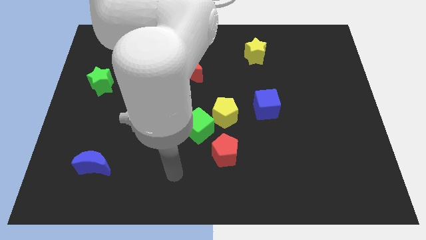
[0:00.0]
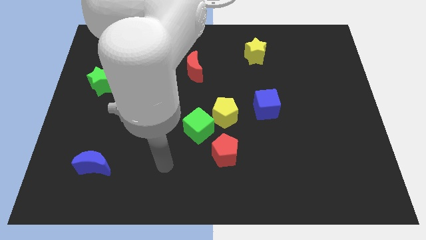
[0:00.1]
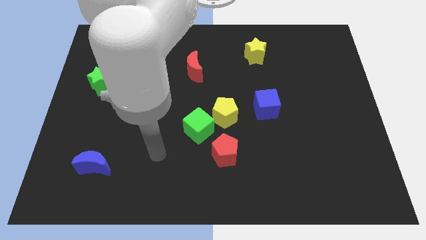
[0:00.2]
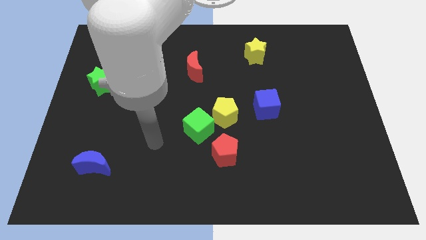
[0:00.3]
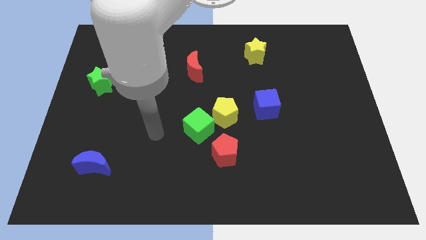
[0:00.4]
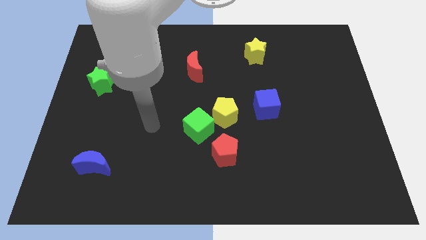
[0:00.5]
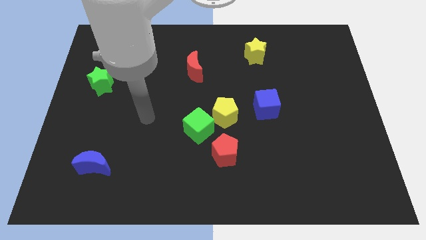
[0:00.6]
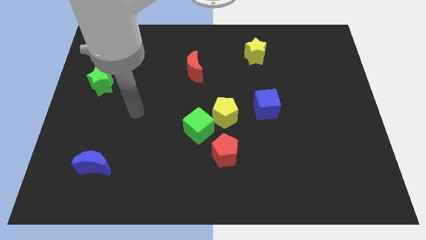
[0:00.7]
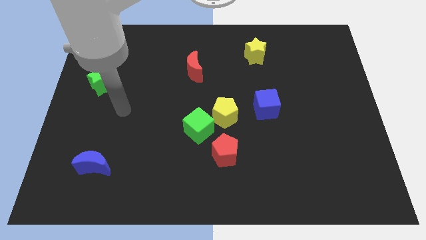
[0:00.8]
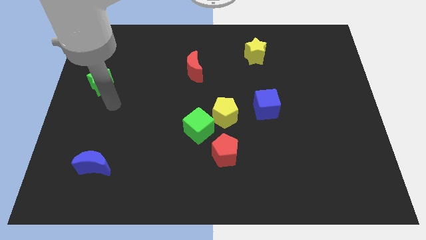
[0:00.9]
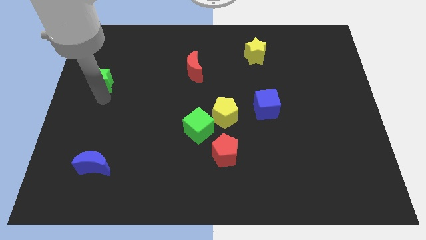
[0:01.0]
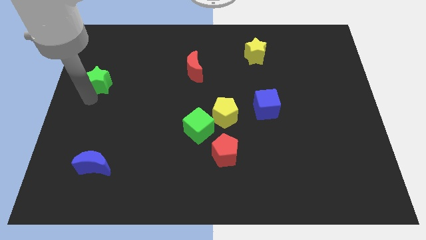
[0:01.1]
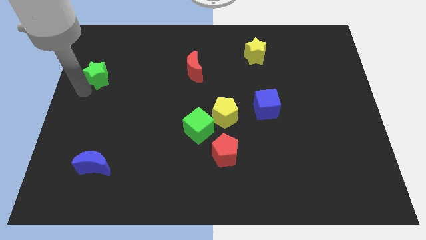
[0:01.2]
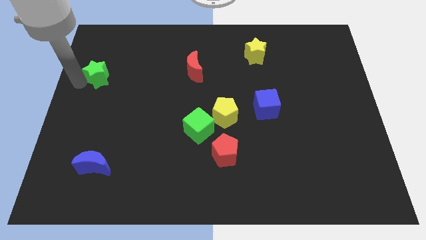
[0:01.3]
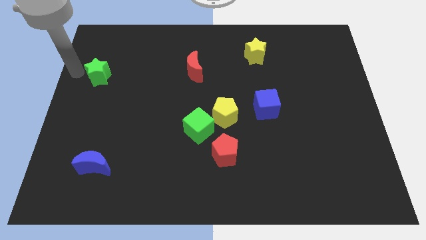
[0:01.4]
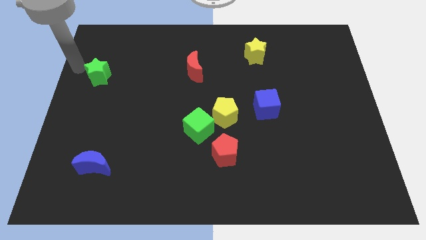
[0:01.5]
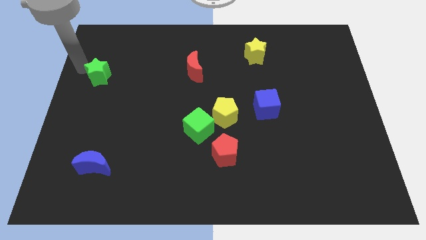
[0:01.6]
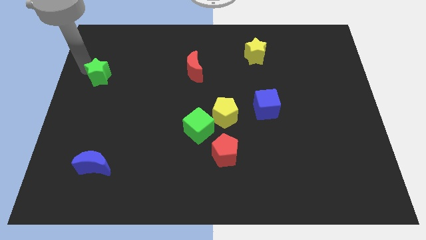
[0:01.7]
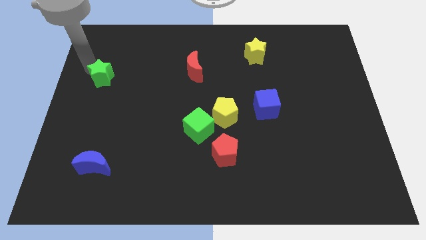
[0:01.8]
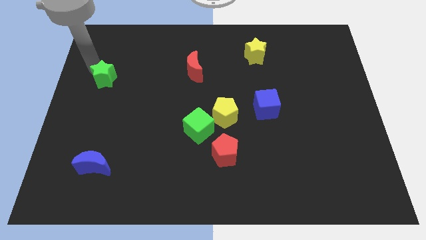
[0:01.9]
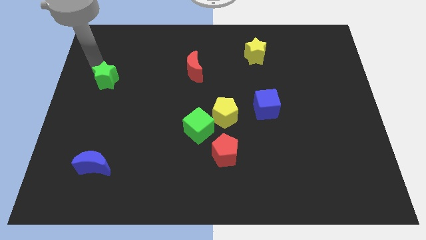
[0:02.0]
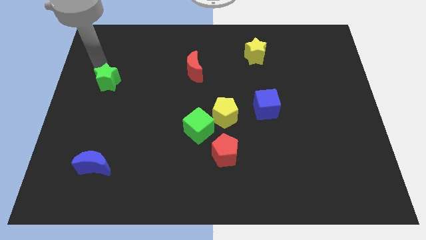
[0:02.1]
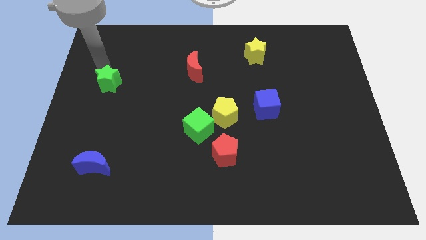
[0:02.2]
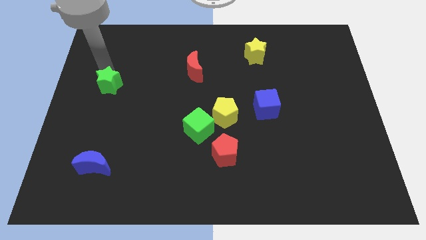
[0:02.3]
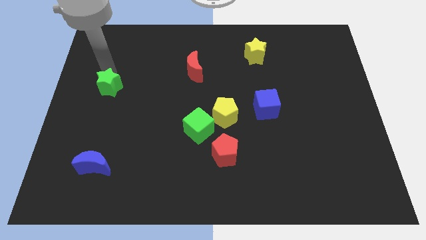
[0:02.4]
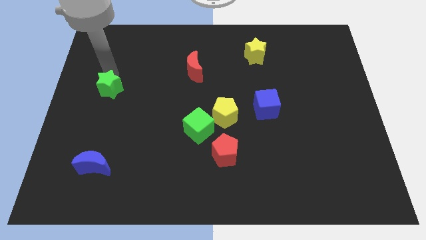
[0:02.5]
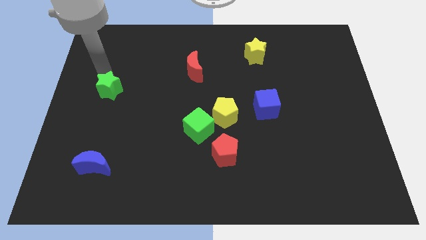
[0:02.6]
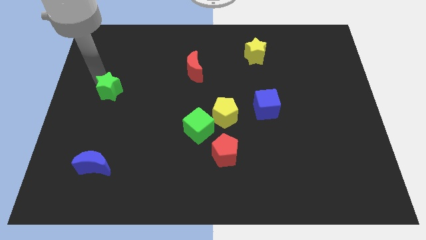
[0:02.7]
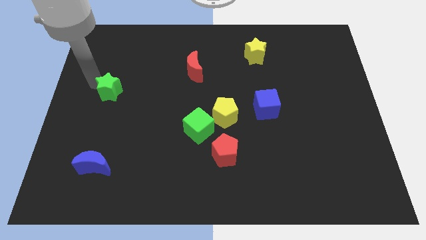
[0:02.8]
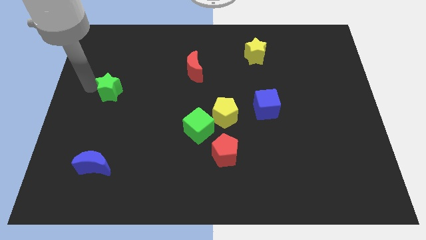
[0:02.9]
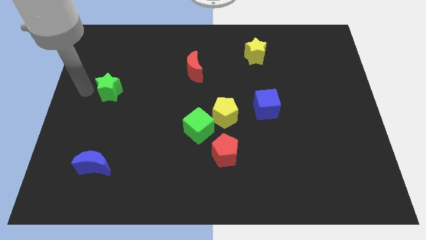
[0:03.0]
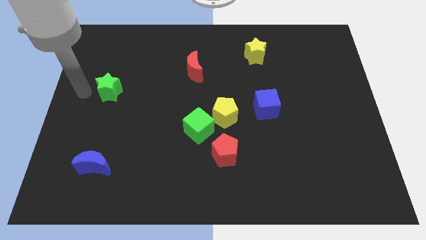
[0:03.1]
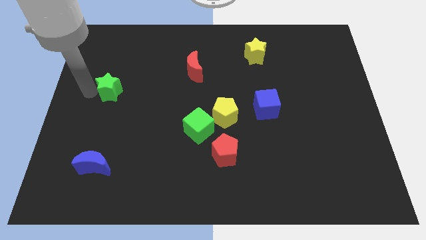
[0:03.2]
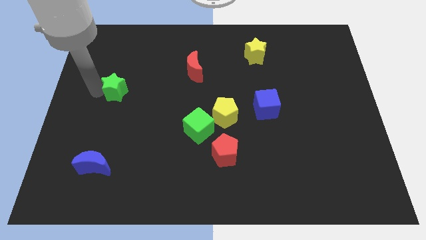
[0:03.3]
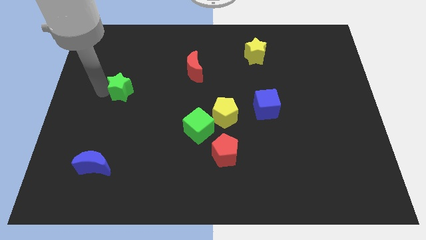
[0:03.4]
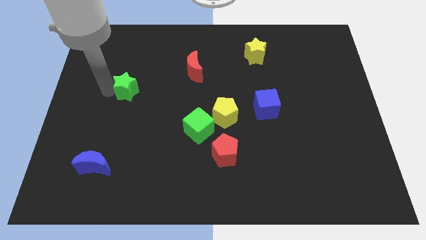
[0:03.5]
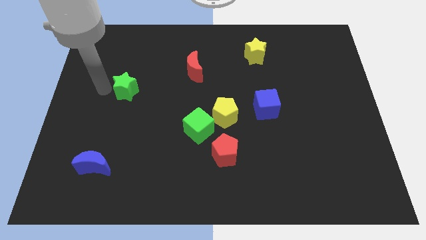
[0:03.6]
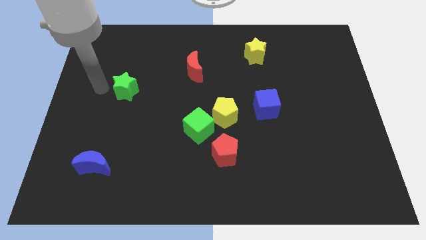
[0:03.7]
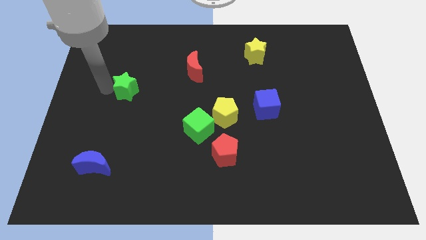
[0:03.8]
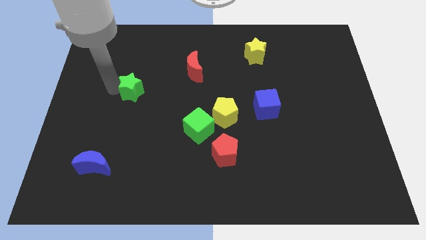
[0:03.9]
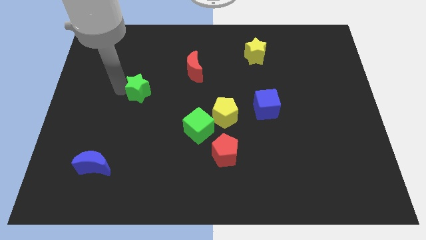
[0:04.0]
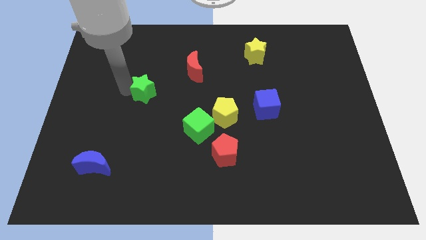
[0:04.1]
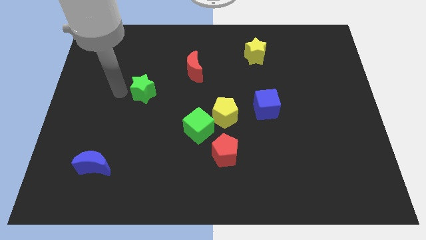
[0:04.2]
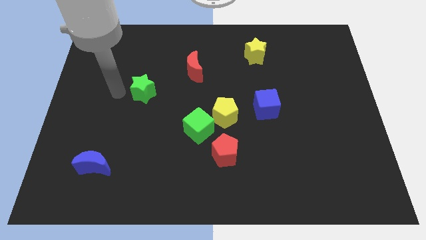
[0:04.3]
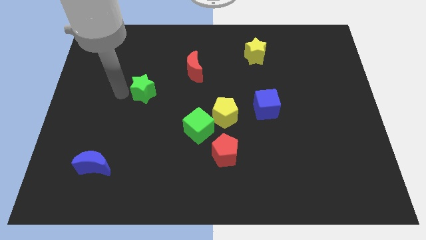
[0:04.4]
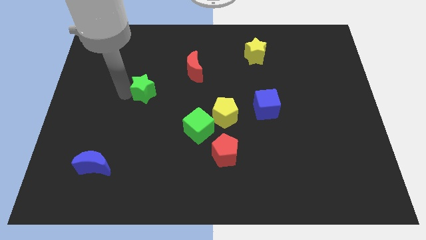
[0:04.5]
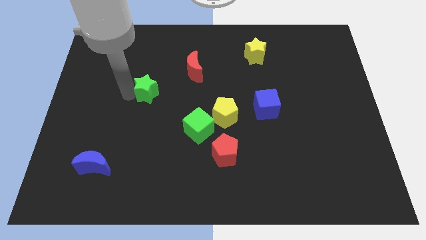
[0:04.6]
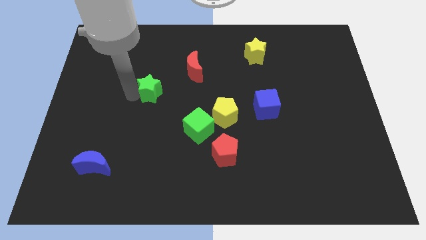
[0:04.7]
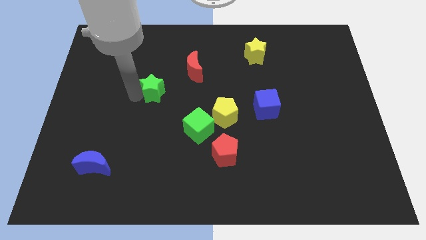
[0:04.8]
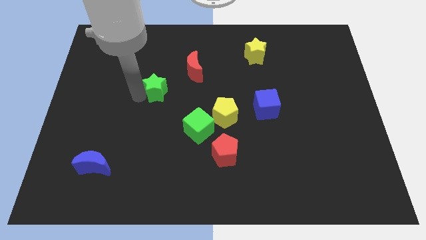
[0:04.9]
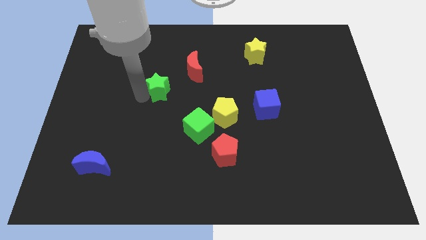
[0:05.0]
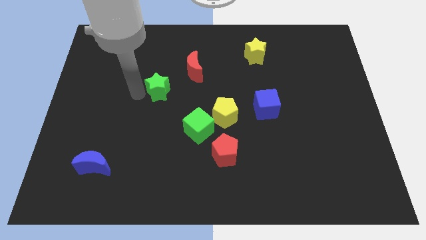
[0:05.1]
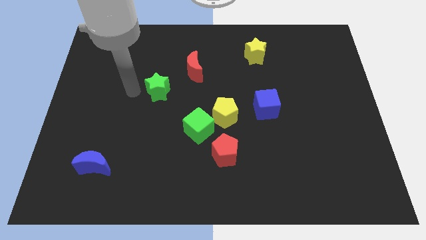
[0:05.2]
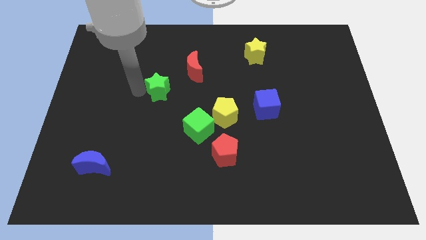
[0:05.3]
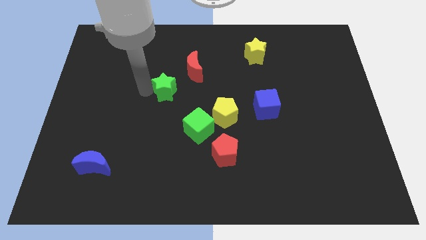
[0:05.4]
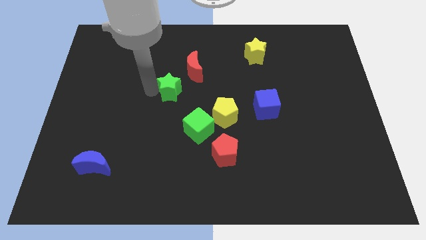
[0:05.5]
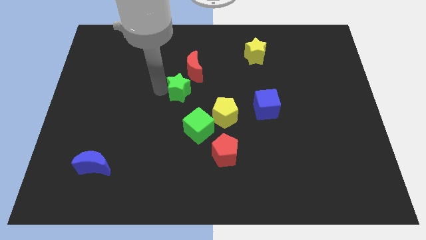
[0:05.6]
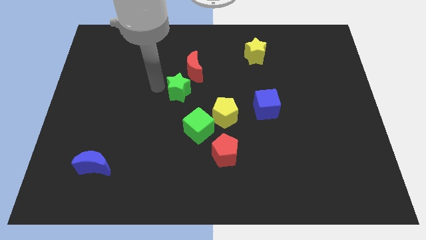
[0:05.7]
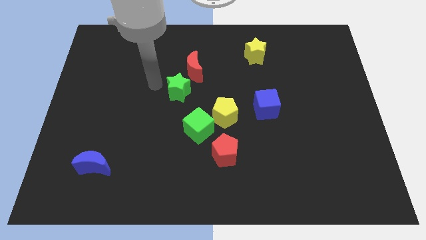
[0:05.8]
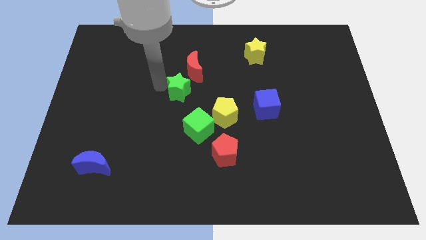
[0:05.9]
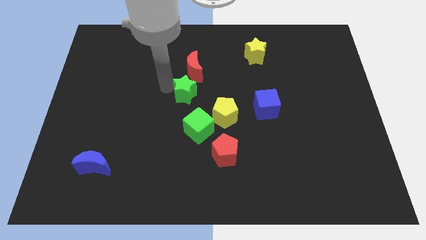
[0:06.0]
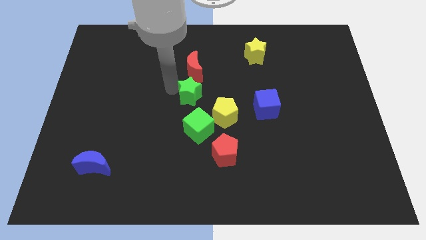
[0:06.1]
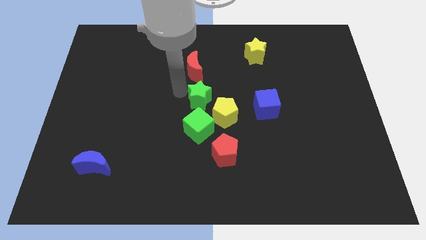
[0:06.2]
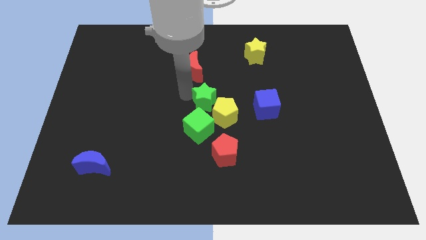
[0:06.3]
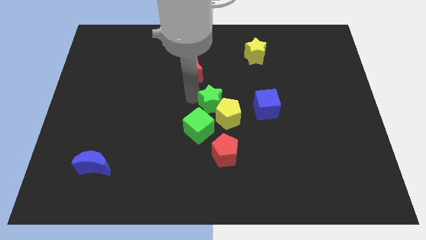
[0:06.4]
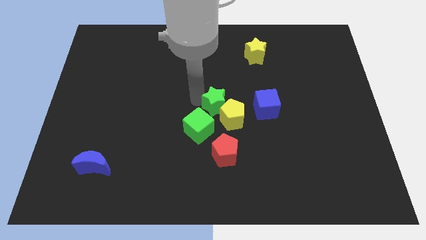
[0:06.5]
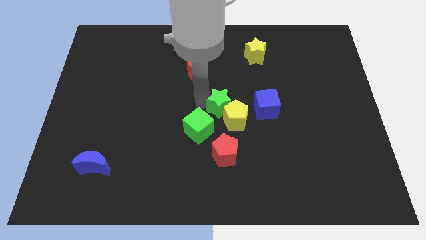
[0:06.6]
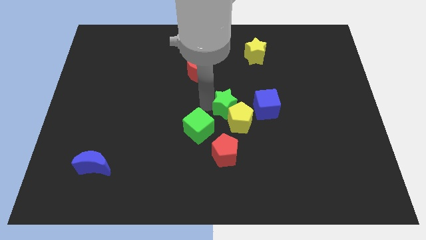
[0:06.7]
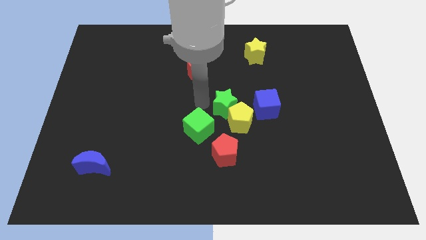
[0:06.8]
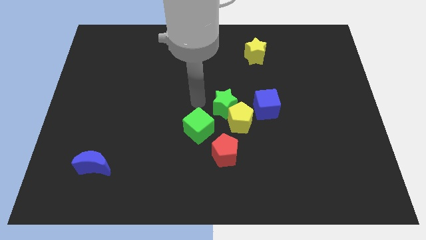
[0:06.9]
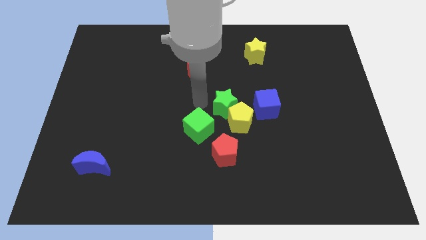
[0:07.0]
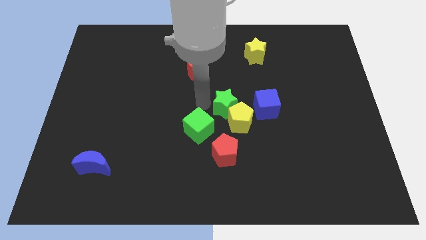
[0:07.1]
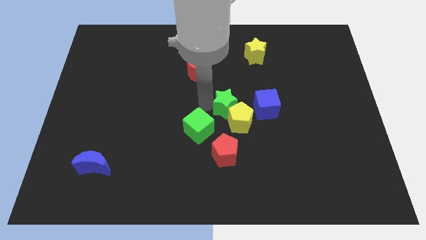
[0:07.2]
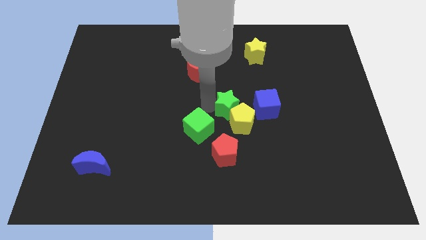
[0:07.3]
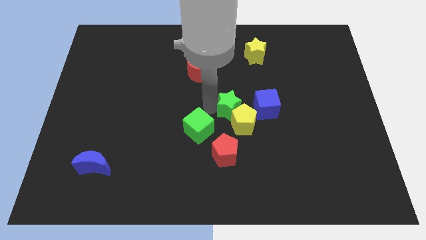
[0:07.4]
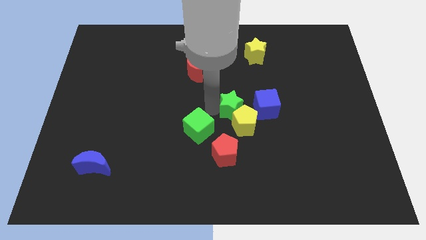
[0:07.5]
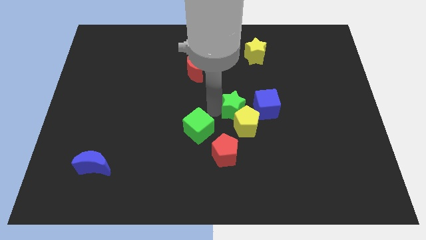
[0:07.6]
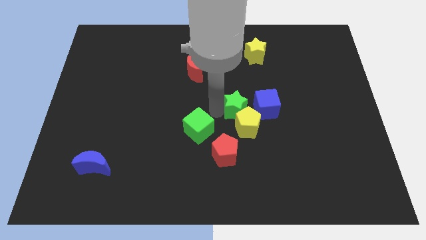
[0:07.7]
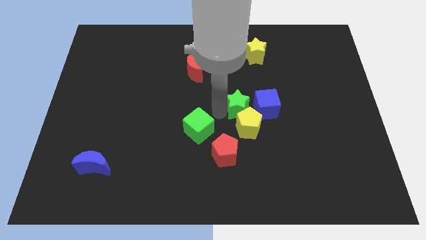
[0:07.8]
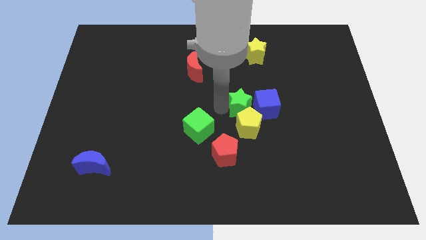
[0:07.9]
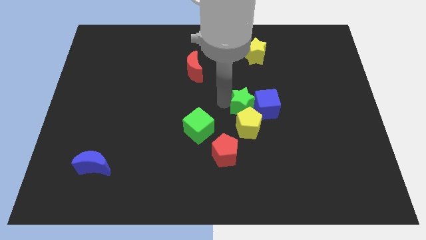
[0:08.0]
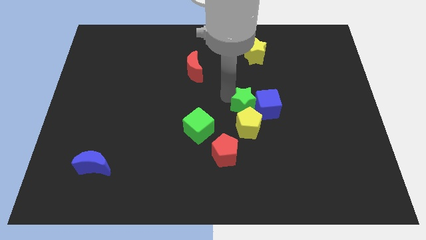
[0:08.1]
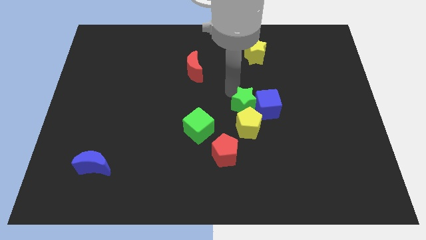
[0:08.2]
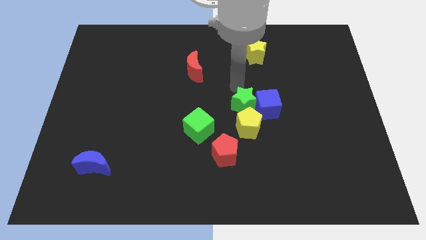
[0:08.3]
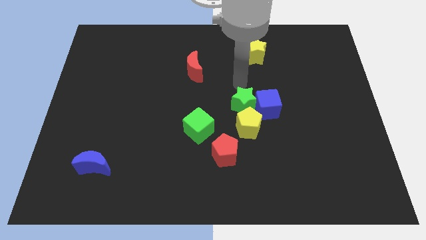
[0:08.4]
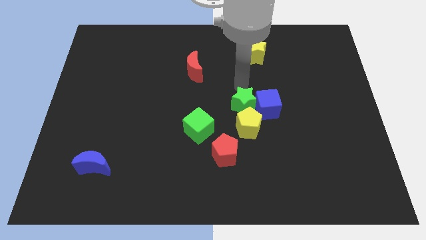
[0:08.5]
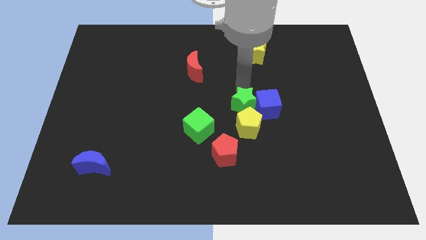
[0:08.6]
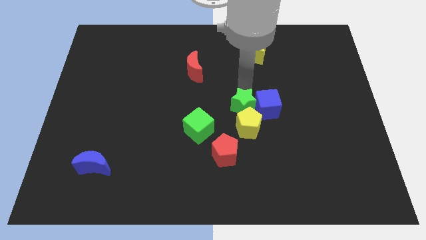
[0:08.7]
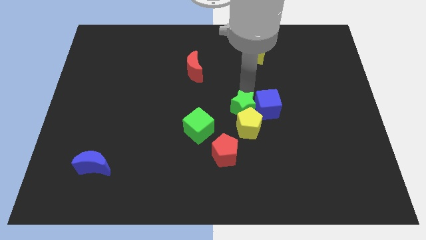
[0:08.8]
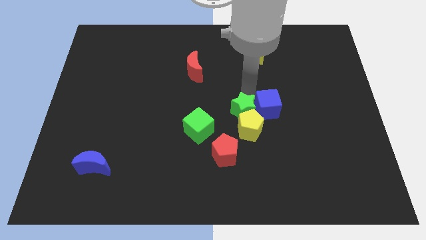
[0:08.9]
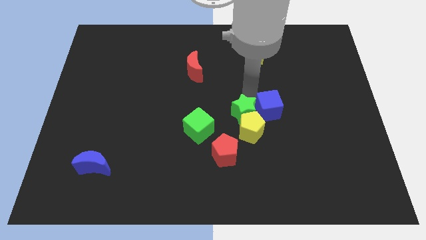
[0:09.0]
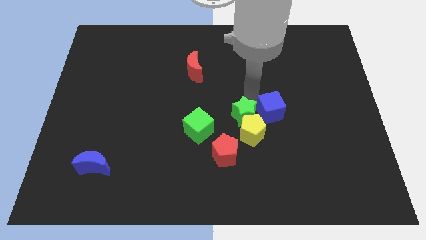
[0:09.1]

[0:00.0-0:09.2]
put the green star to the top right side of the red pentagon
